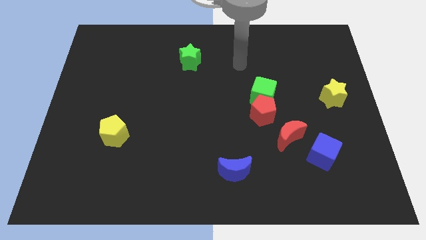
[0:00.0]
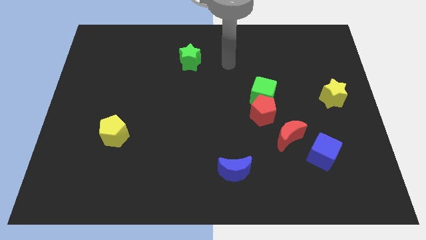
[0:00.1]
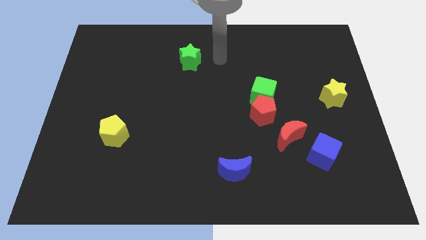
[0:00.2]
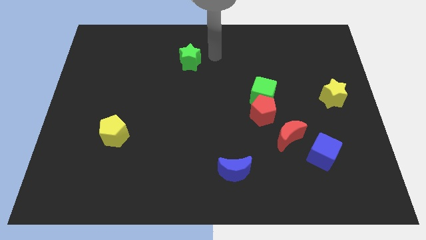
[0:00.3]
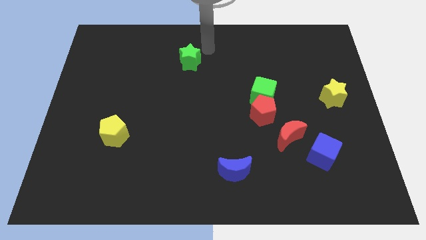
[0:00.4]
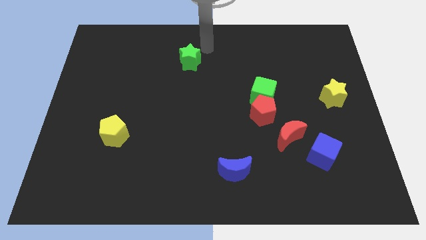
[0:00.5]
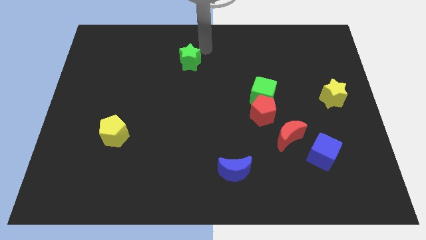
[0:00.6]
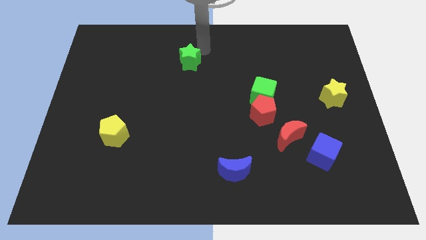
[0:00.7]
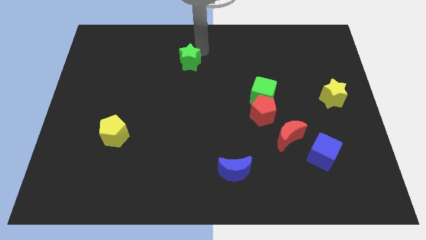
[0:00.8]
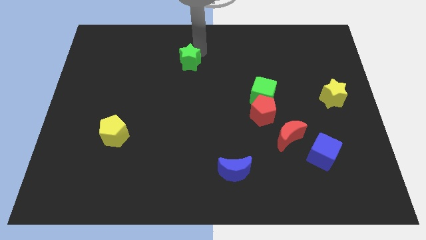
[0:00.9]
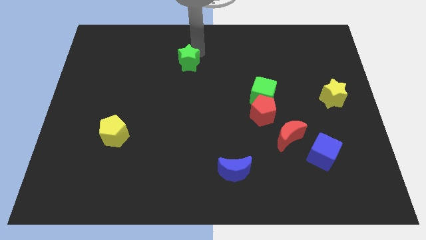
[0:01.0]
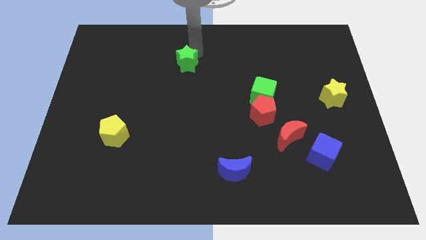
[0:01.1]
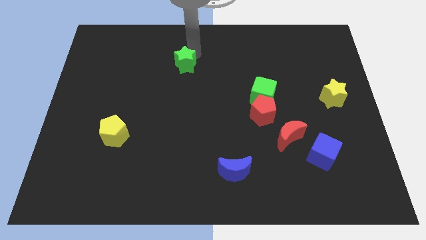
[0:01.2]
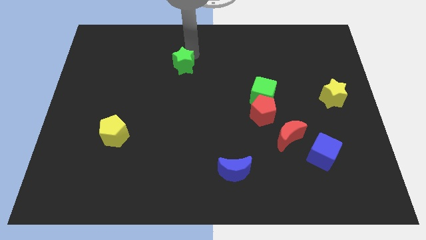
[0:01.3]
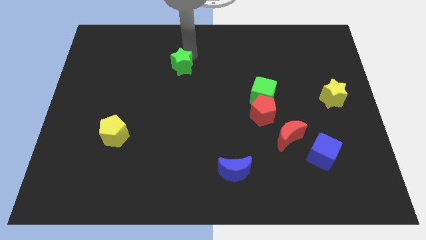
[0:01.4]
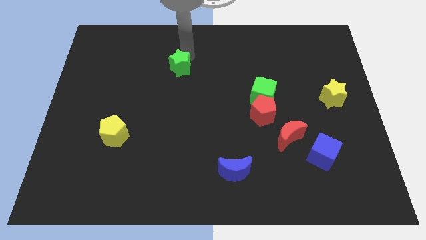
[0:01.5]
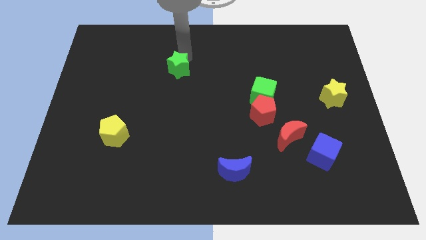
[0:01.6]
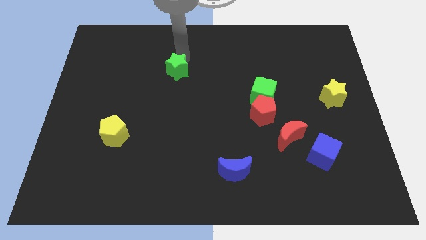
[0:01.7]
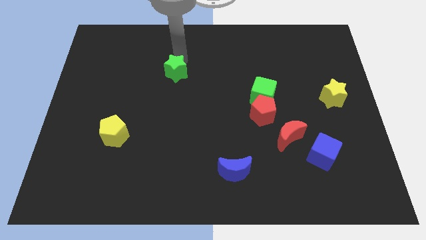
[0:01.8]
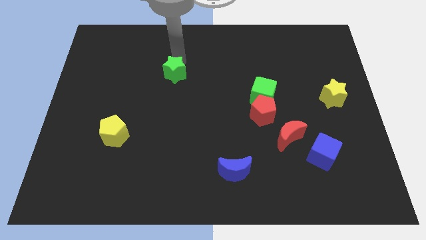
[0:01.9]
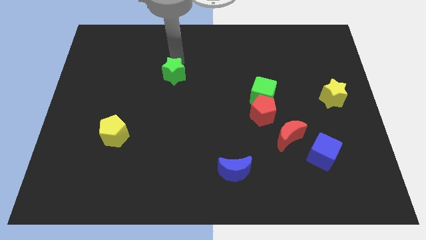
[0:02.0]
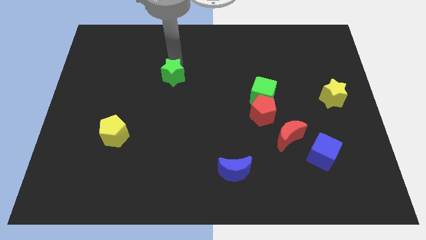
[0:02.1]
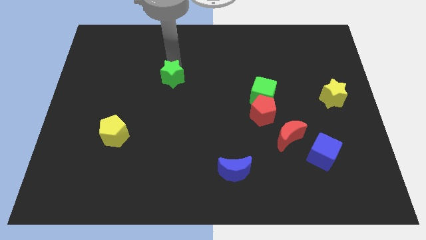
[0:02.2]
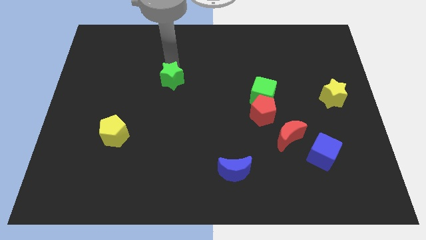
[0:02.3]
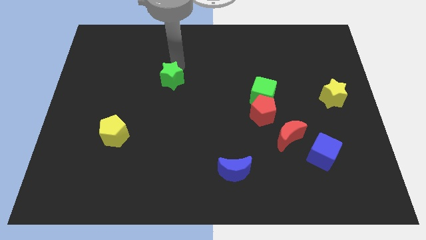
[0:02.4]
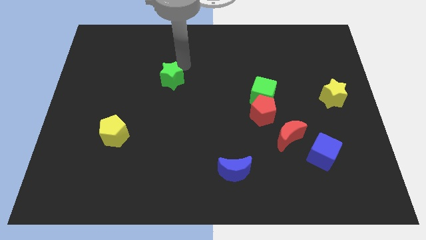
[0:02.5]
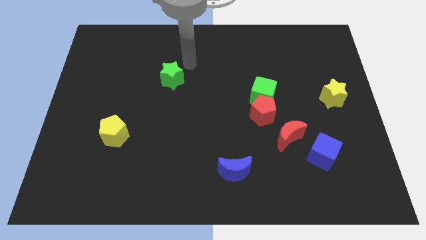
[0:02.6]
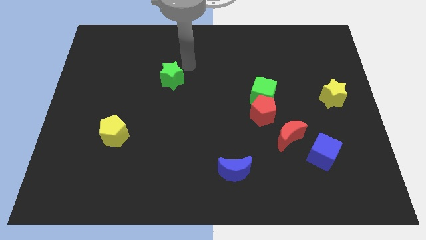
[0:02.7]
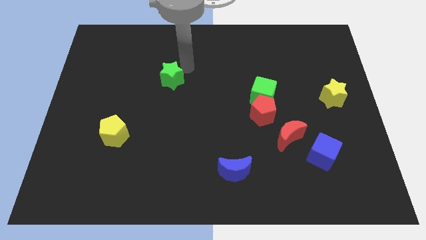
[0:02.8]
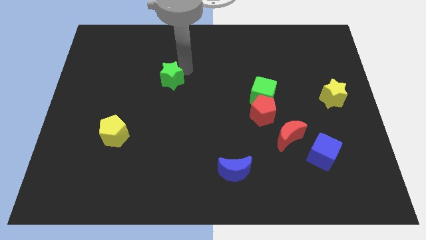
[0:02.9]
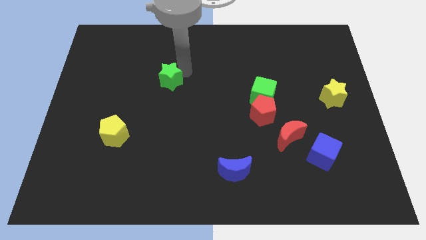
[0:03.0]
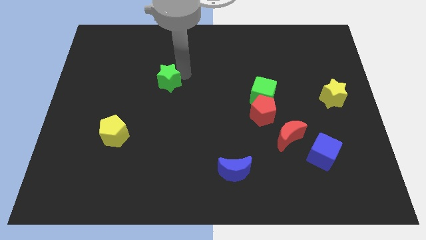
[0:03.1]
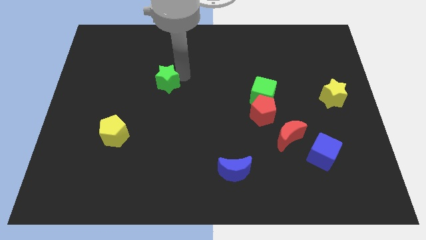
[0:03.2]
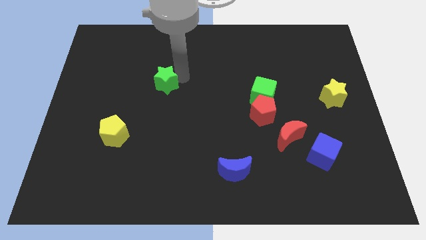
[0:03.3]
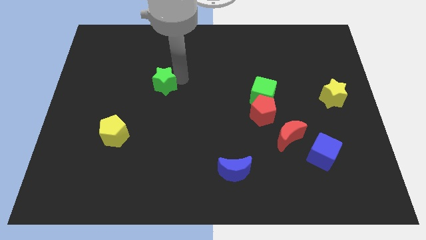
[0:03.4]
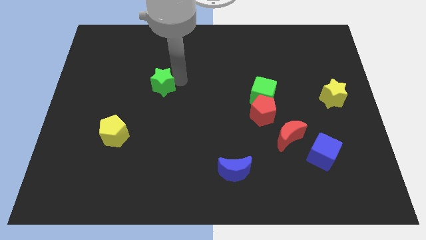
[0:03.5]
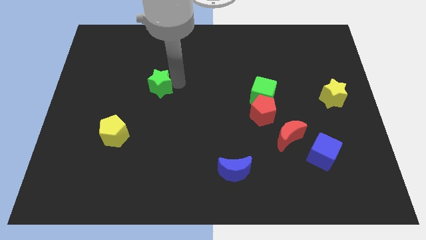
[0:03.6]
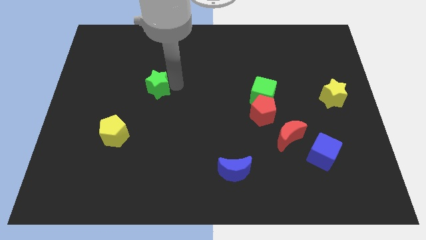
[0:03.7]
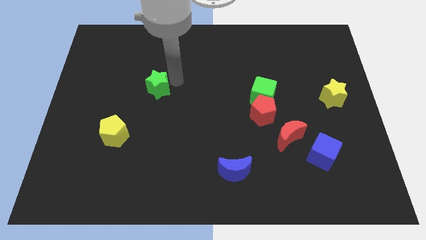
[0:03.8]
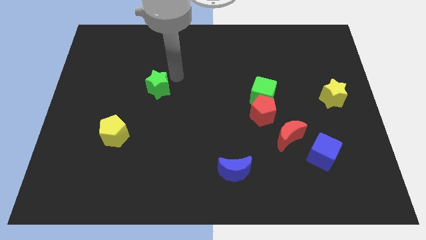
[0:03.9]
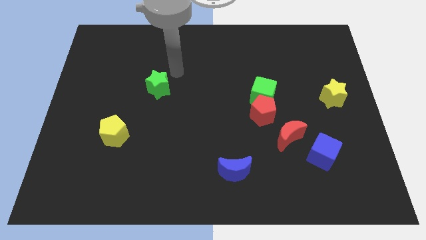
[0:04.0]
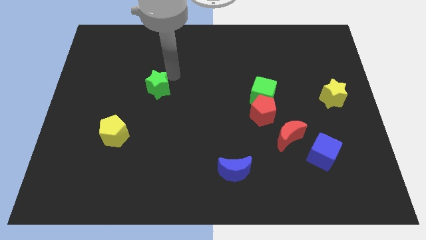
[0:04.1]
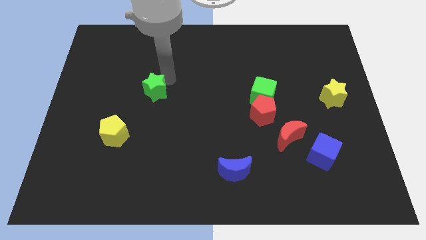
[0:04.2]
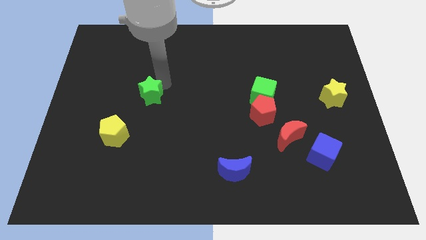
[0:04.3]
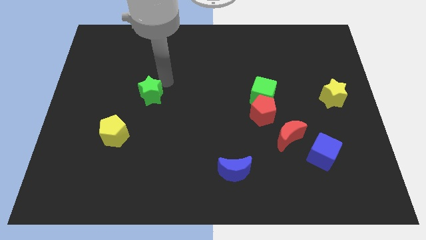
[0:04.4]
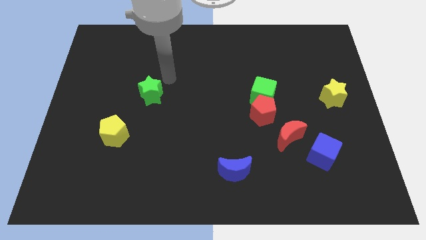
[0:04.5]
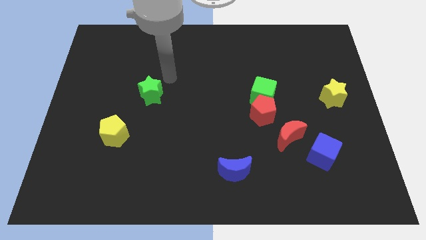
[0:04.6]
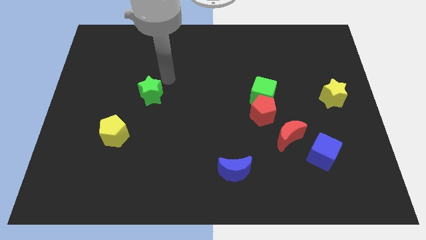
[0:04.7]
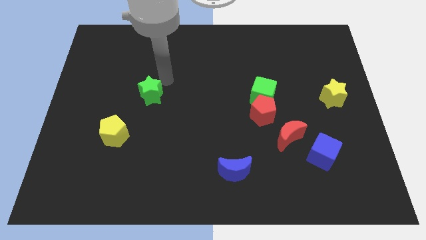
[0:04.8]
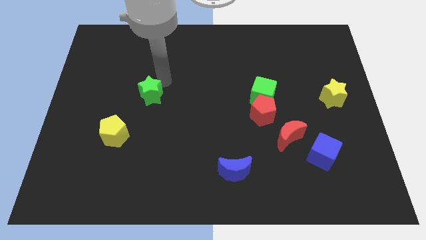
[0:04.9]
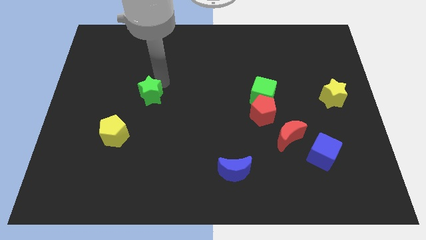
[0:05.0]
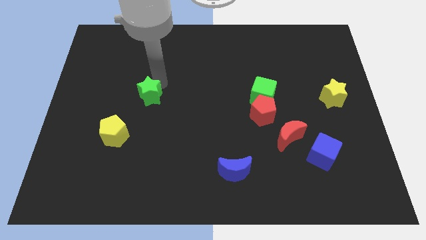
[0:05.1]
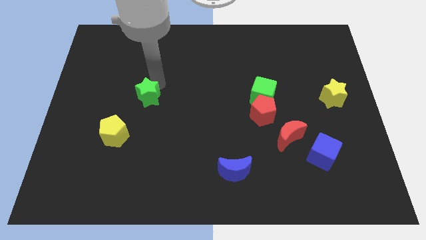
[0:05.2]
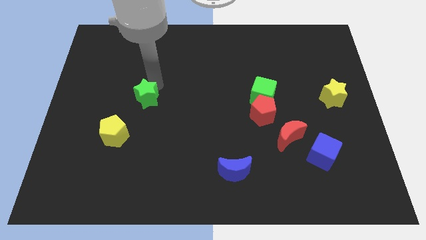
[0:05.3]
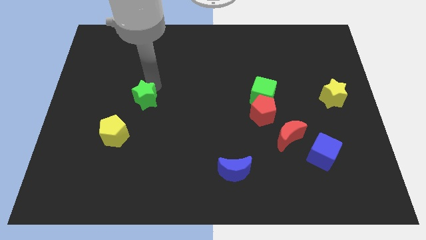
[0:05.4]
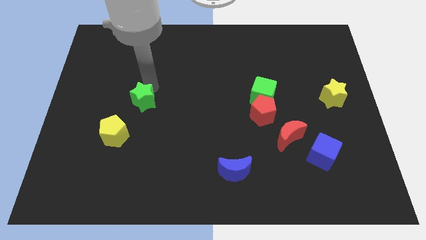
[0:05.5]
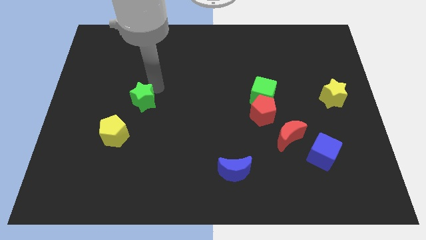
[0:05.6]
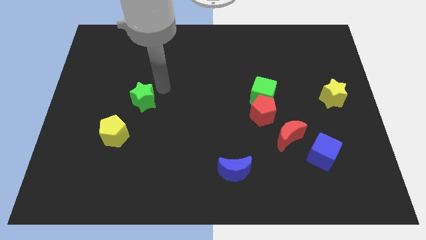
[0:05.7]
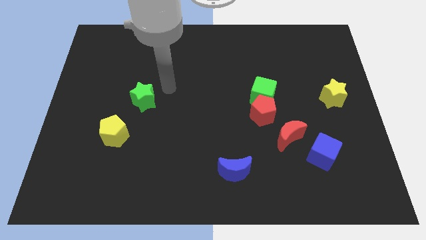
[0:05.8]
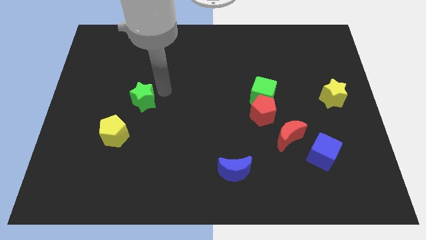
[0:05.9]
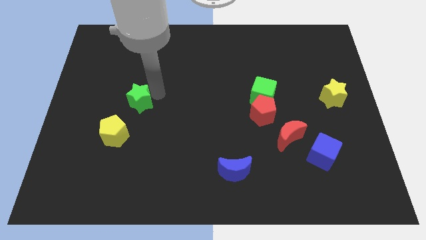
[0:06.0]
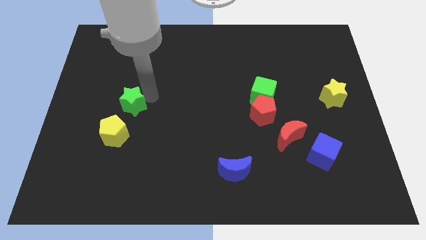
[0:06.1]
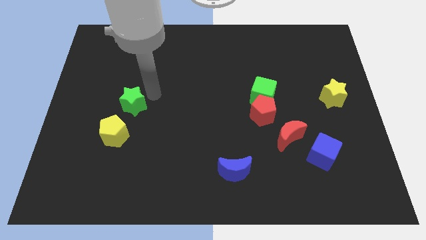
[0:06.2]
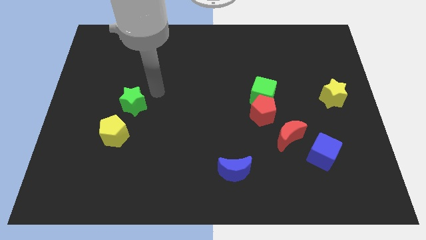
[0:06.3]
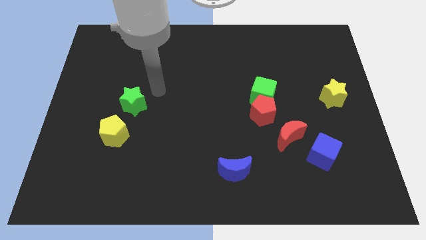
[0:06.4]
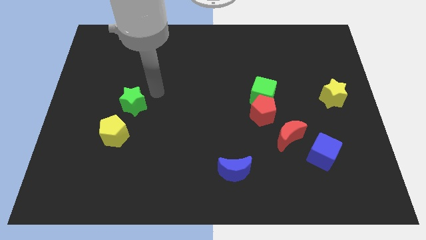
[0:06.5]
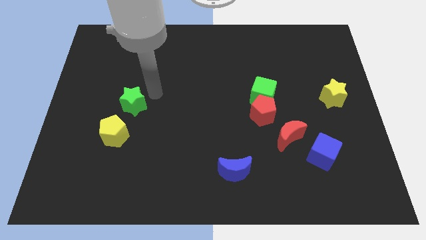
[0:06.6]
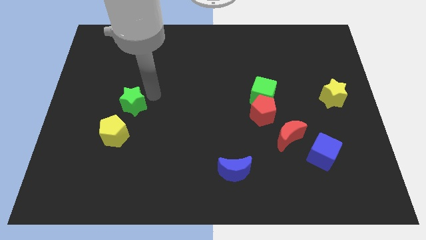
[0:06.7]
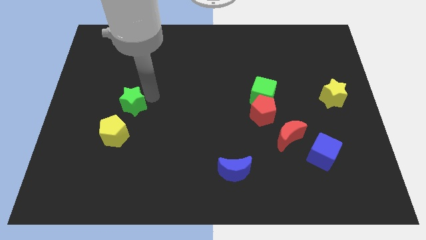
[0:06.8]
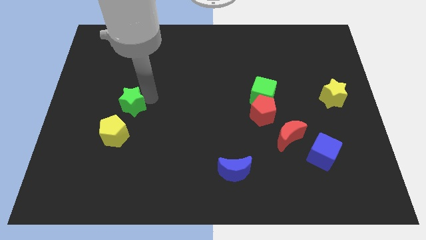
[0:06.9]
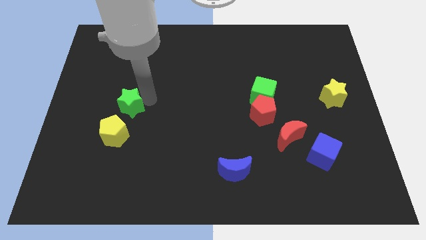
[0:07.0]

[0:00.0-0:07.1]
slide the green star down and then to the left

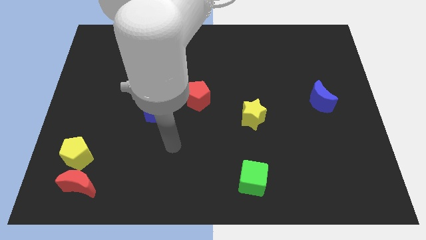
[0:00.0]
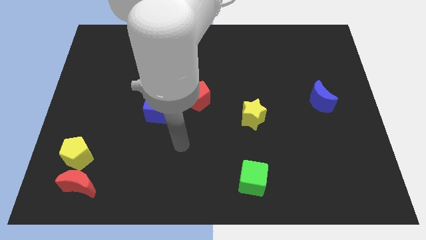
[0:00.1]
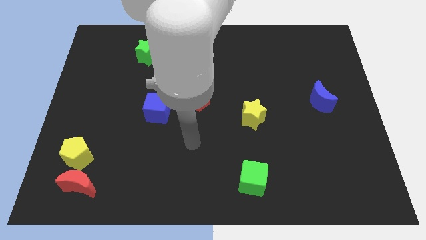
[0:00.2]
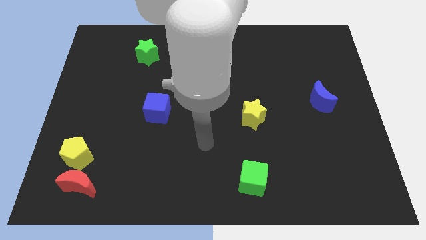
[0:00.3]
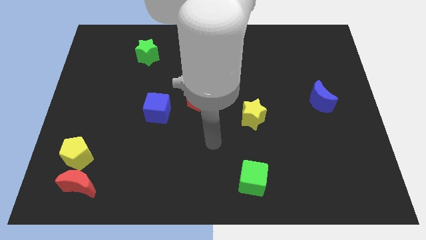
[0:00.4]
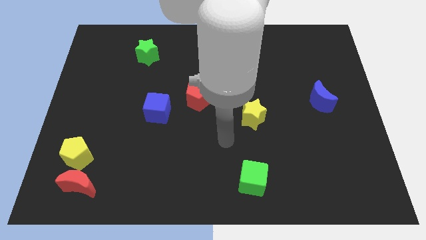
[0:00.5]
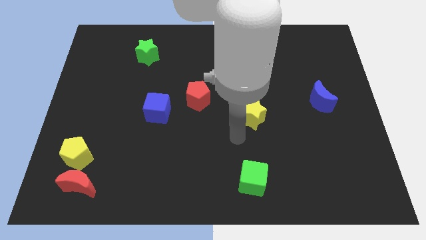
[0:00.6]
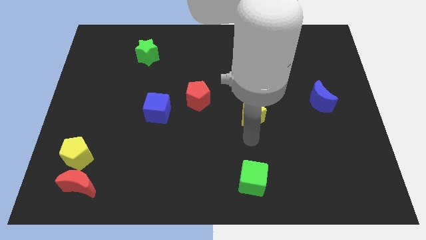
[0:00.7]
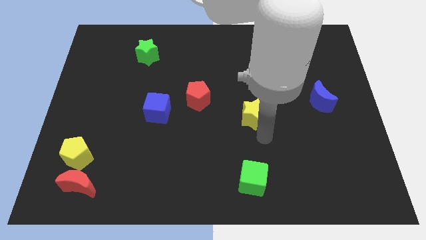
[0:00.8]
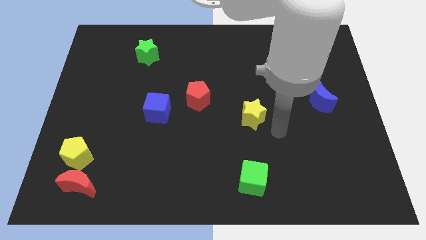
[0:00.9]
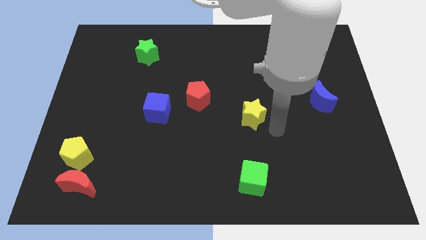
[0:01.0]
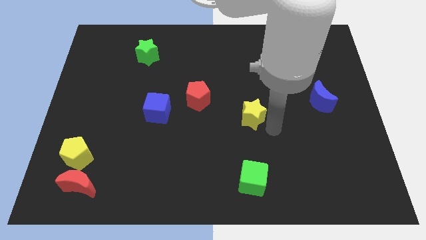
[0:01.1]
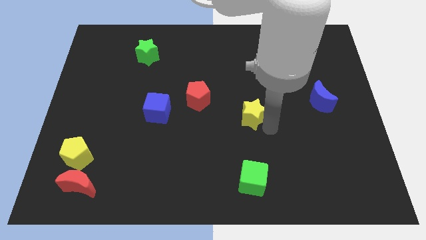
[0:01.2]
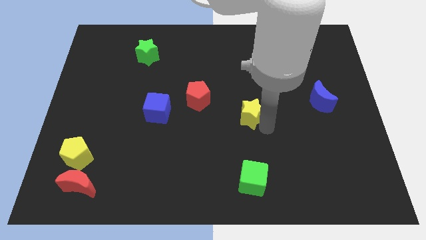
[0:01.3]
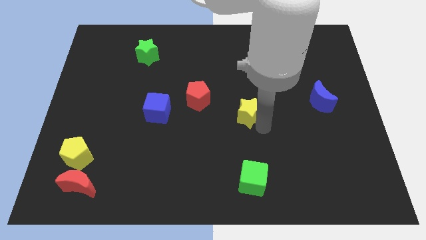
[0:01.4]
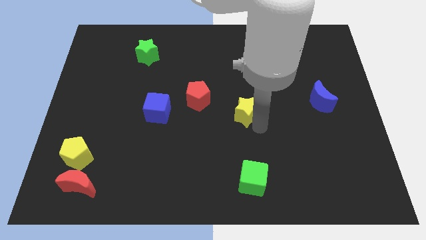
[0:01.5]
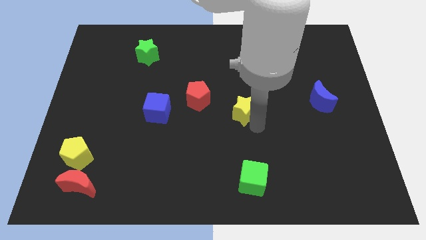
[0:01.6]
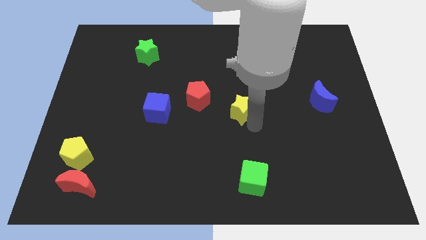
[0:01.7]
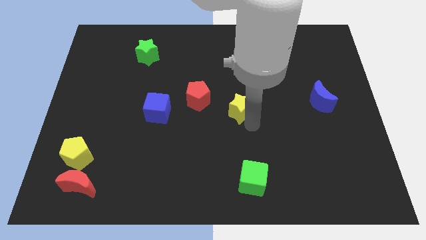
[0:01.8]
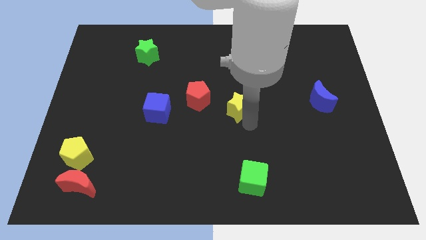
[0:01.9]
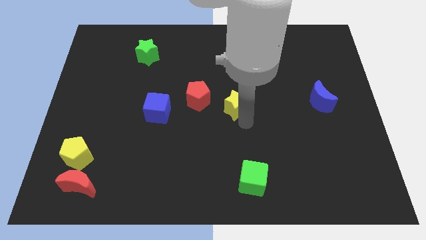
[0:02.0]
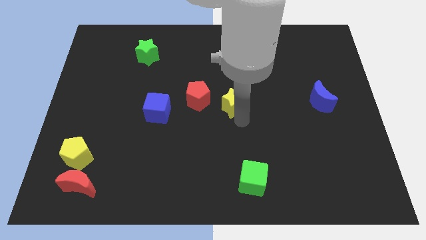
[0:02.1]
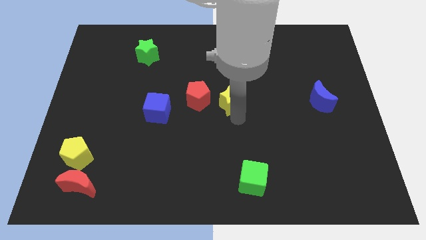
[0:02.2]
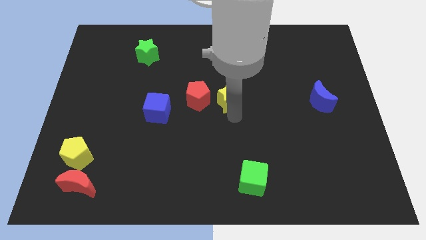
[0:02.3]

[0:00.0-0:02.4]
slide the yellow star up and then to the left a little
